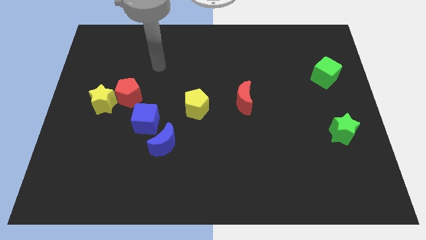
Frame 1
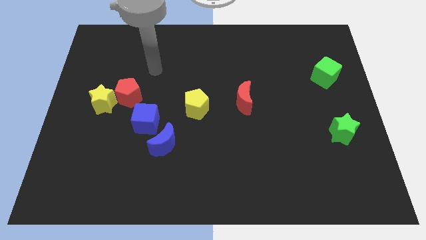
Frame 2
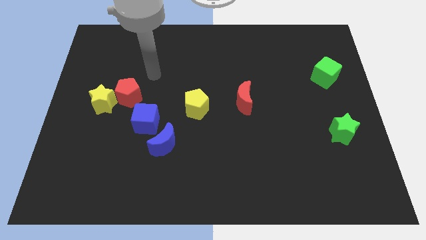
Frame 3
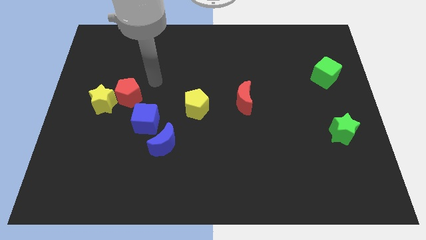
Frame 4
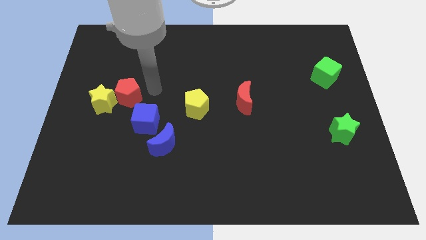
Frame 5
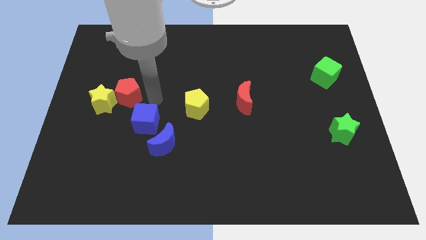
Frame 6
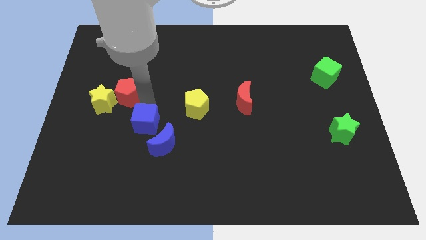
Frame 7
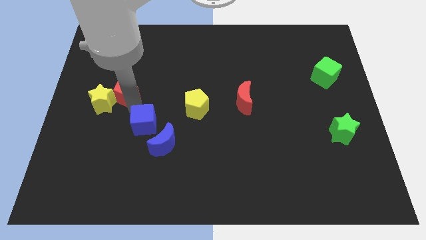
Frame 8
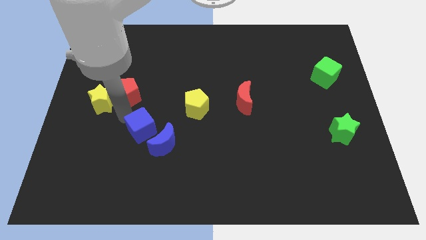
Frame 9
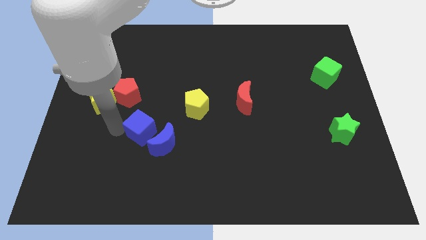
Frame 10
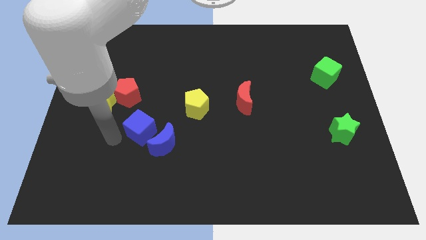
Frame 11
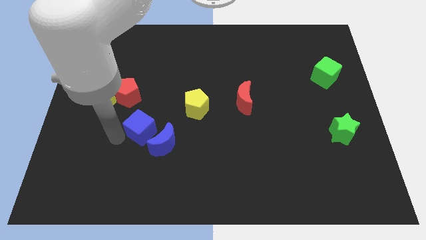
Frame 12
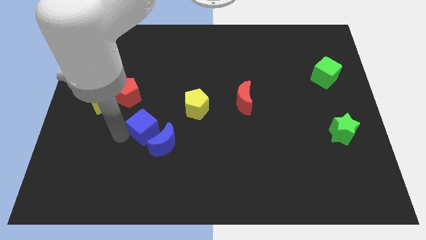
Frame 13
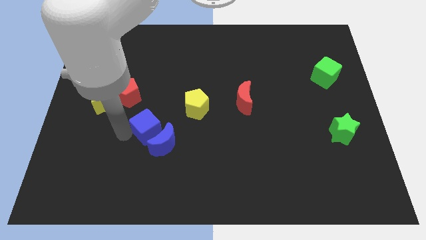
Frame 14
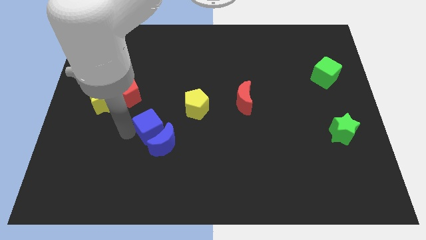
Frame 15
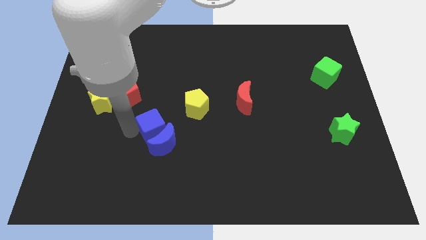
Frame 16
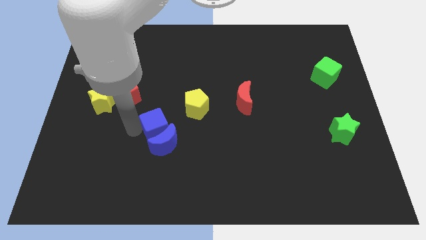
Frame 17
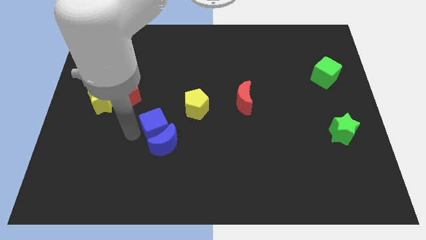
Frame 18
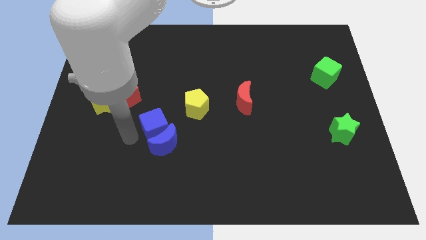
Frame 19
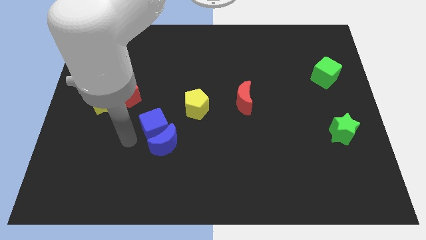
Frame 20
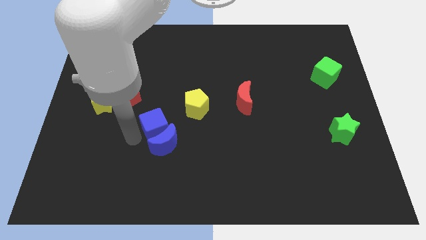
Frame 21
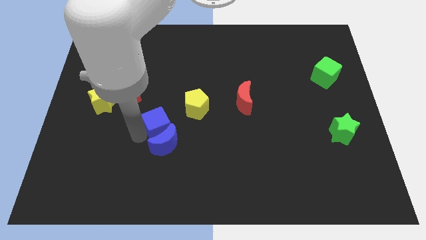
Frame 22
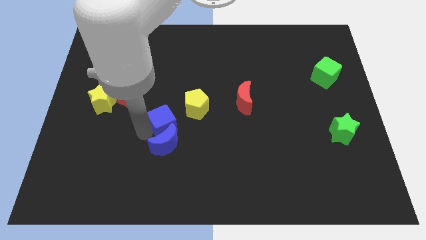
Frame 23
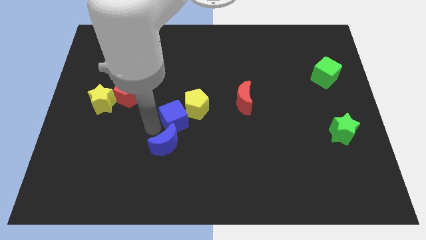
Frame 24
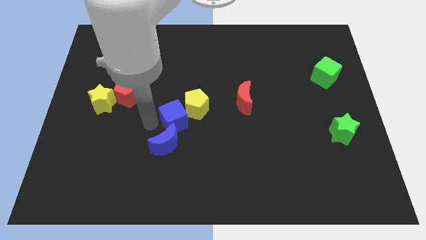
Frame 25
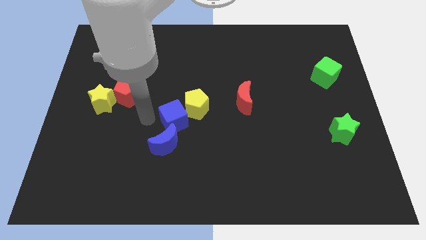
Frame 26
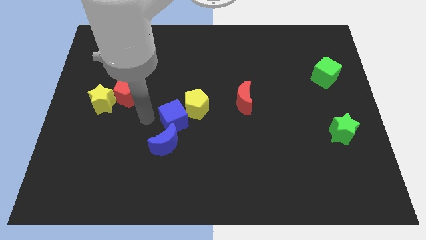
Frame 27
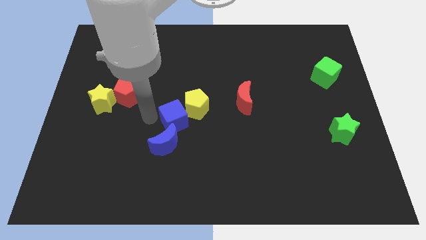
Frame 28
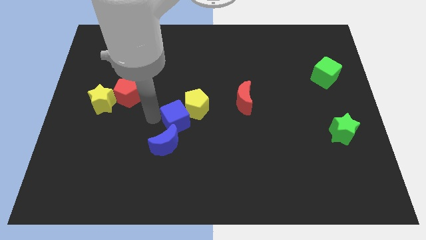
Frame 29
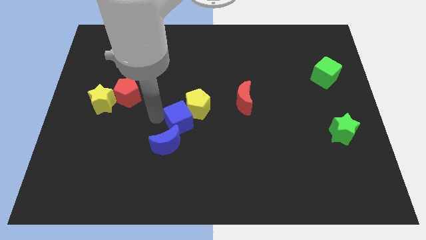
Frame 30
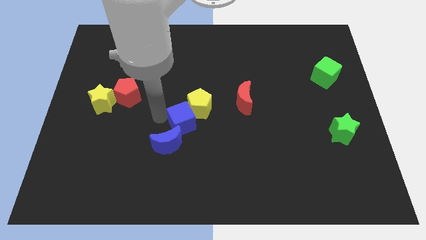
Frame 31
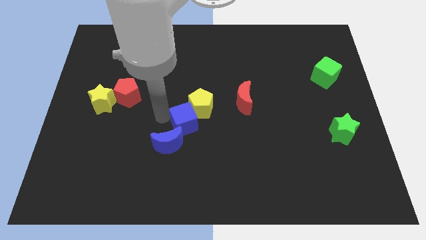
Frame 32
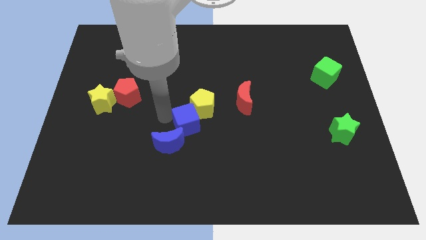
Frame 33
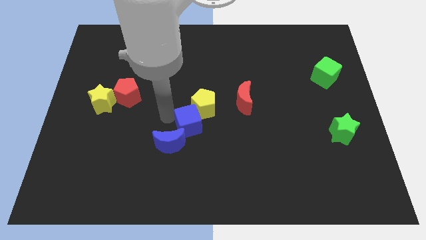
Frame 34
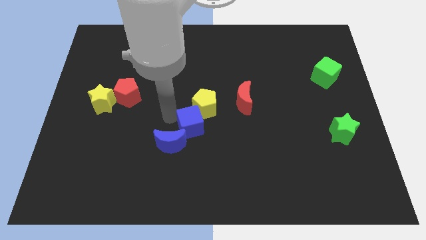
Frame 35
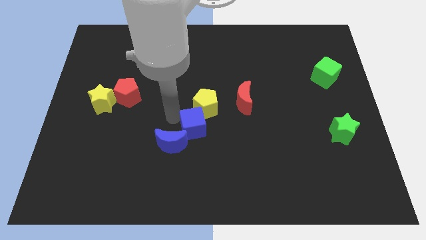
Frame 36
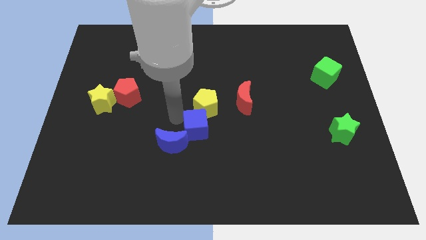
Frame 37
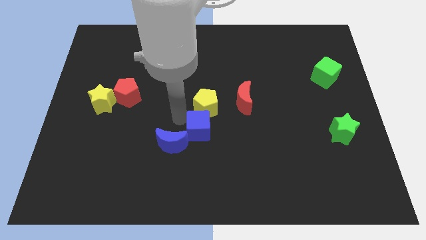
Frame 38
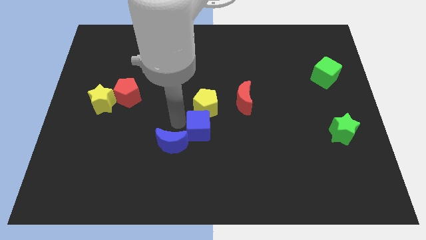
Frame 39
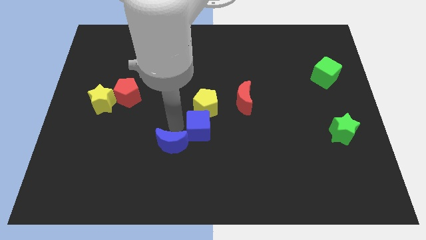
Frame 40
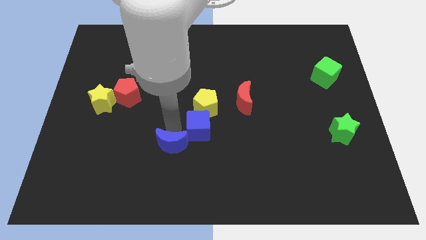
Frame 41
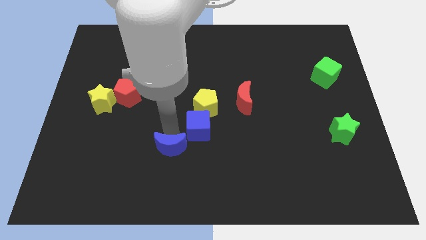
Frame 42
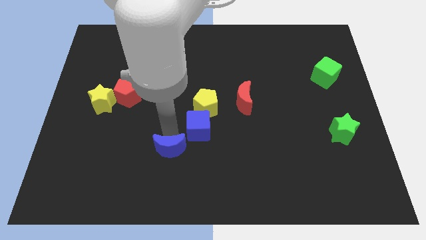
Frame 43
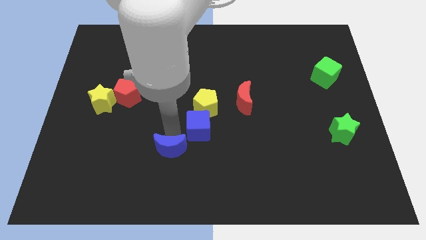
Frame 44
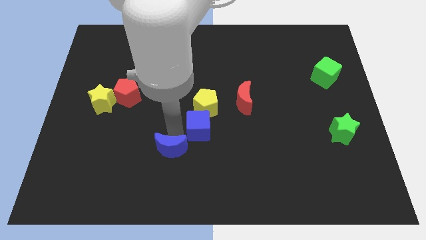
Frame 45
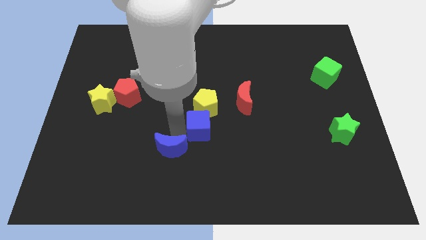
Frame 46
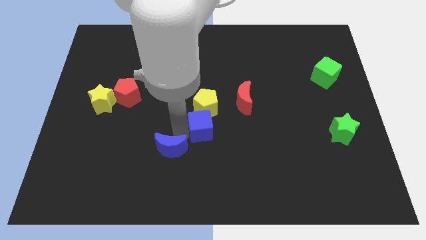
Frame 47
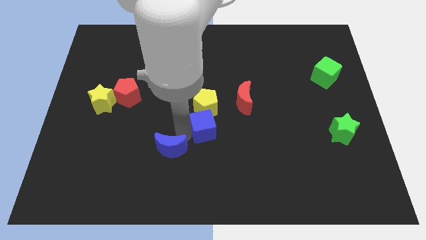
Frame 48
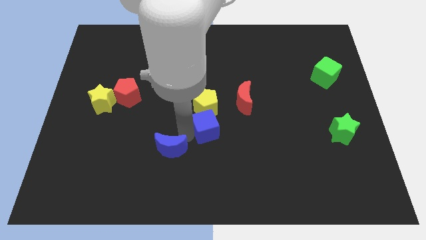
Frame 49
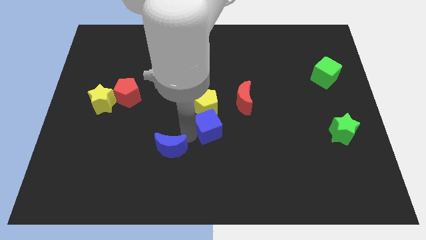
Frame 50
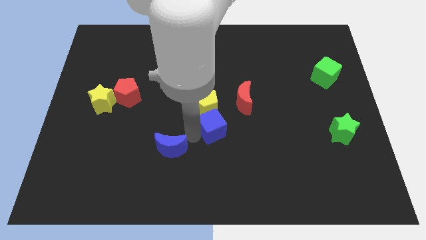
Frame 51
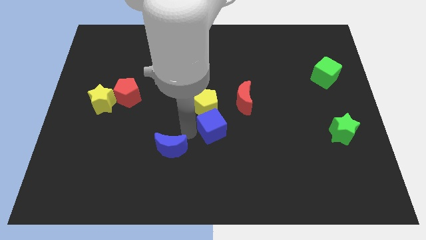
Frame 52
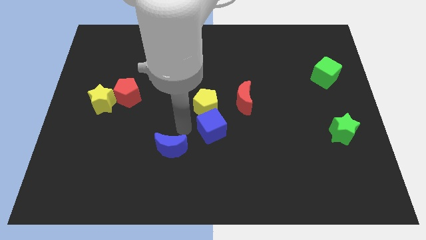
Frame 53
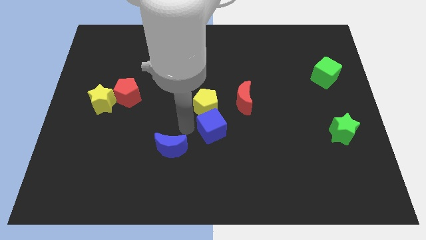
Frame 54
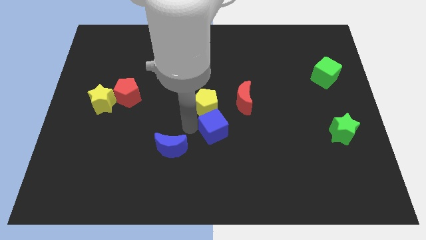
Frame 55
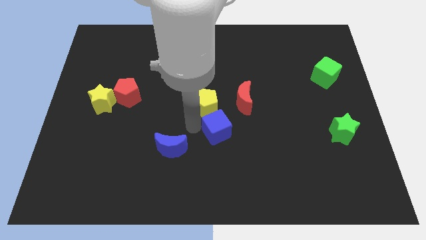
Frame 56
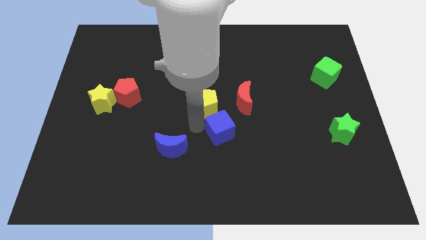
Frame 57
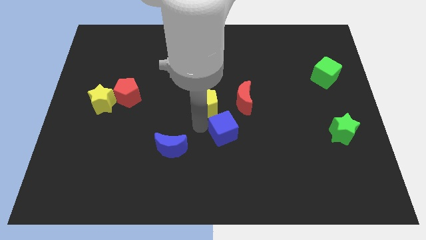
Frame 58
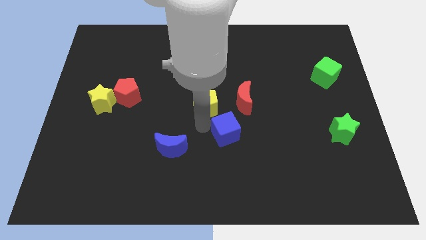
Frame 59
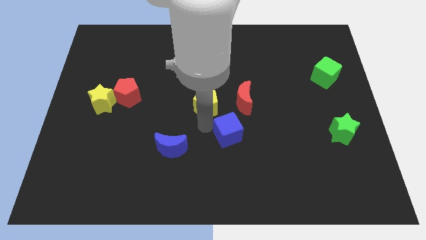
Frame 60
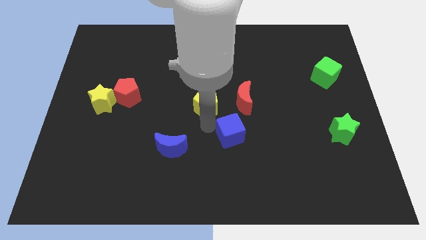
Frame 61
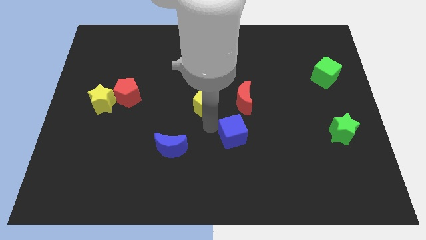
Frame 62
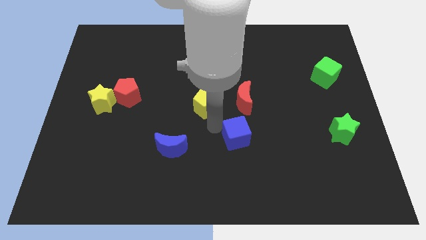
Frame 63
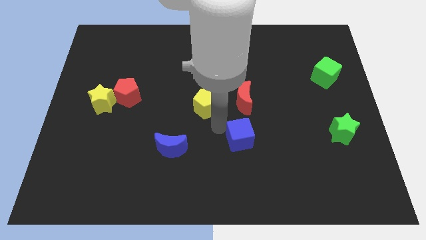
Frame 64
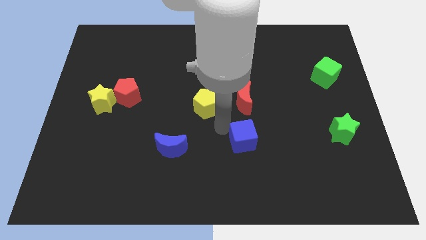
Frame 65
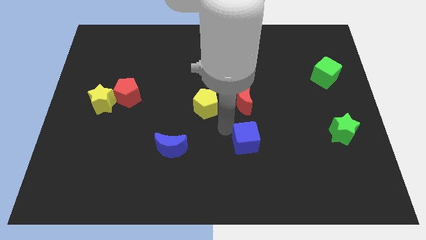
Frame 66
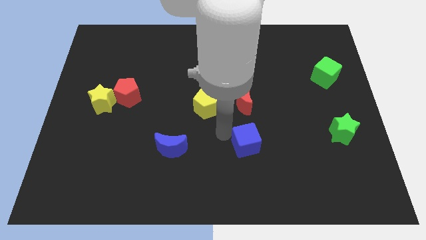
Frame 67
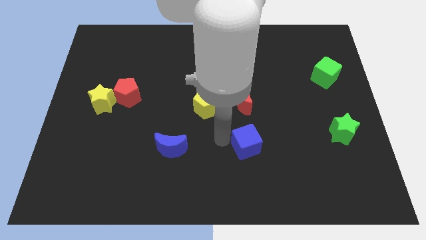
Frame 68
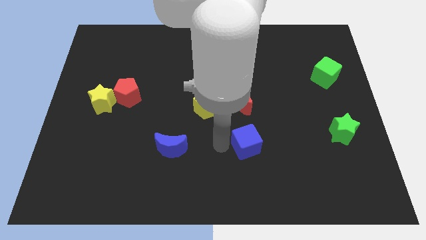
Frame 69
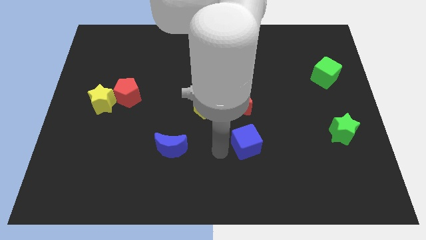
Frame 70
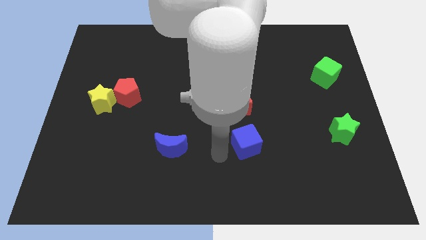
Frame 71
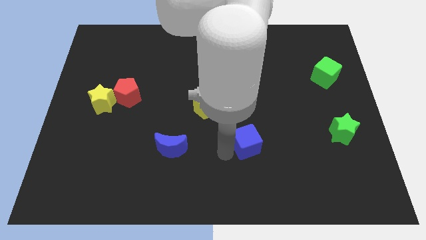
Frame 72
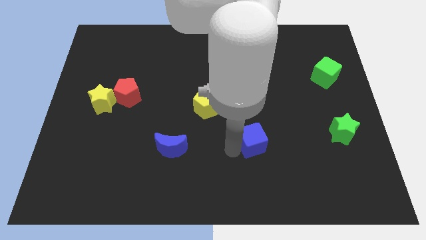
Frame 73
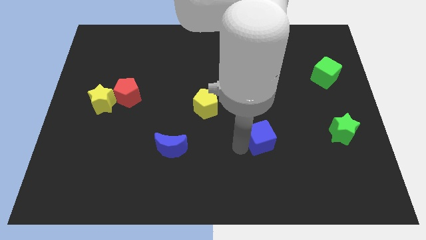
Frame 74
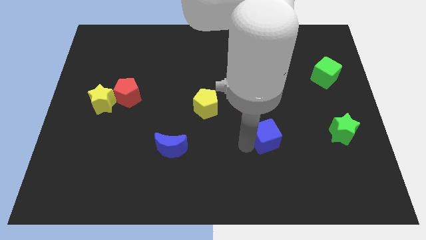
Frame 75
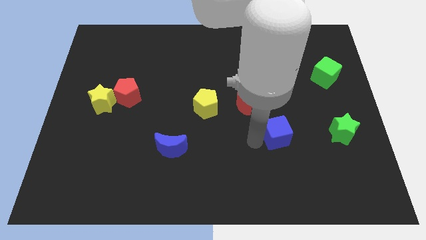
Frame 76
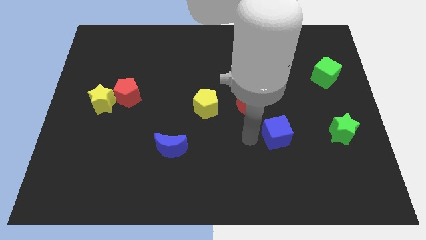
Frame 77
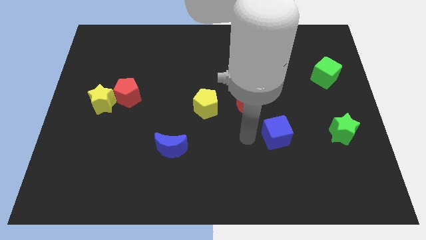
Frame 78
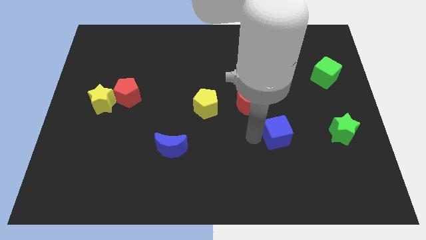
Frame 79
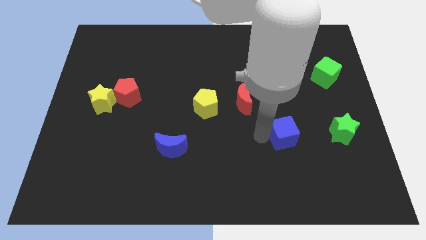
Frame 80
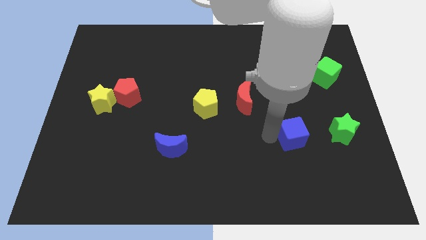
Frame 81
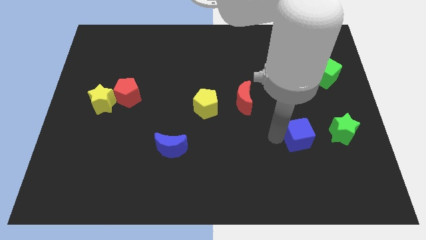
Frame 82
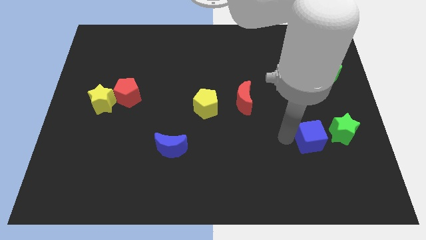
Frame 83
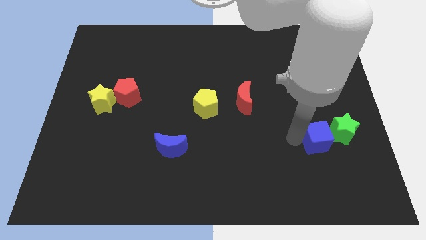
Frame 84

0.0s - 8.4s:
move the blue cube to the green star
